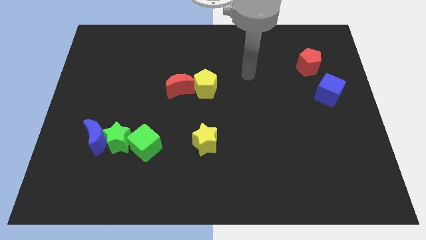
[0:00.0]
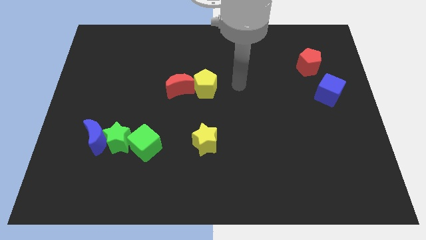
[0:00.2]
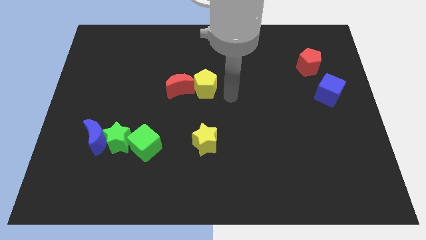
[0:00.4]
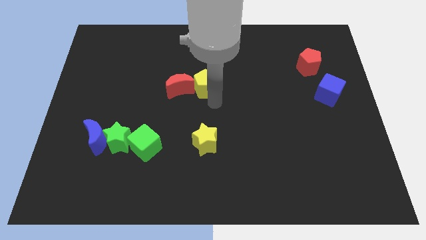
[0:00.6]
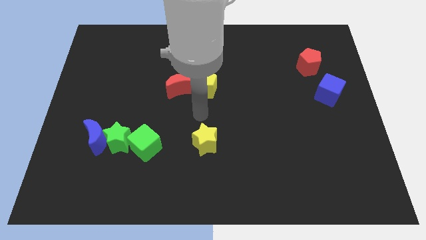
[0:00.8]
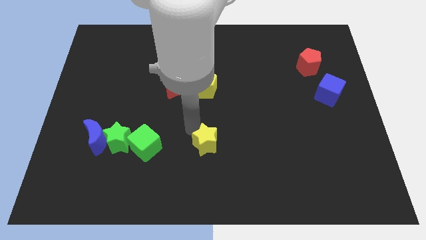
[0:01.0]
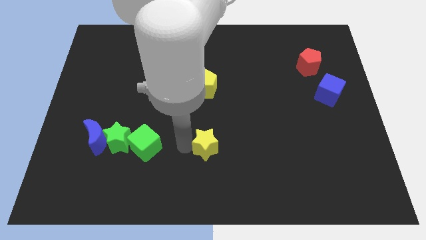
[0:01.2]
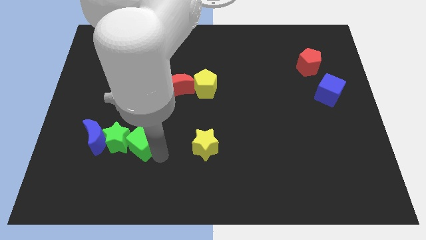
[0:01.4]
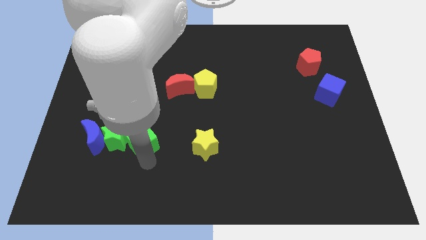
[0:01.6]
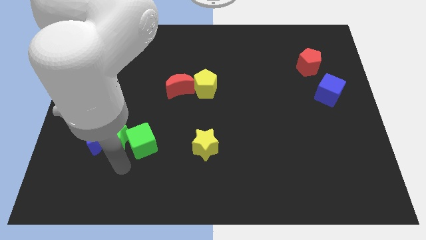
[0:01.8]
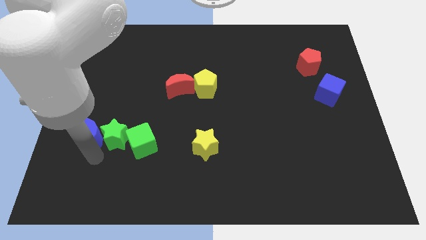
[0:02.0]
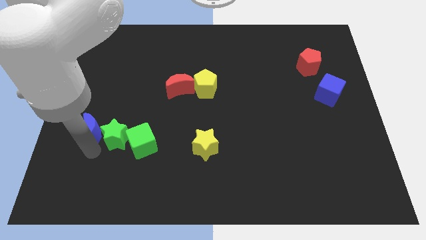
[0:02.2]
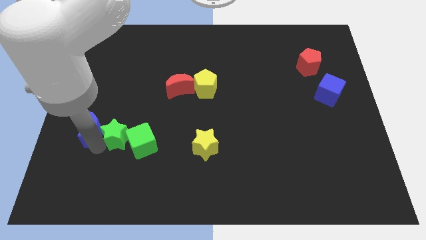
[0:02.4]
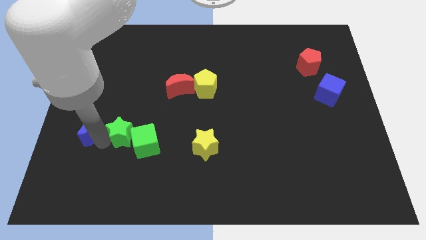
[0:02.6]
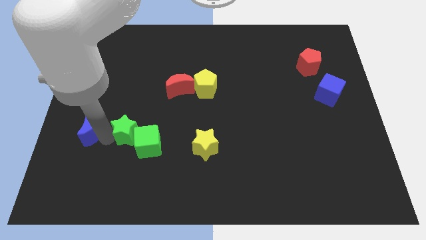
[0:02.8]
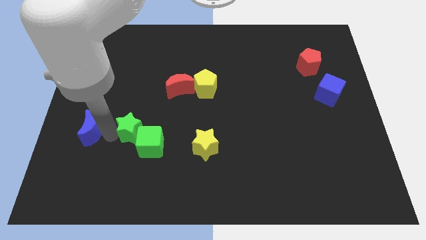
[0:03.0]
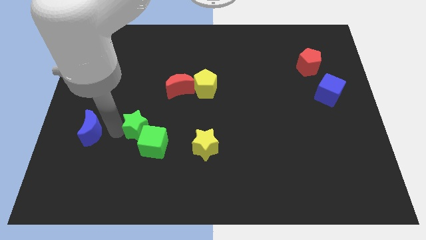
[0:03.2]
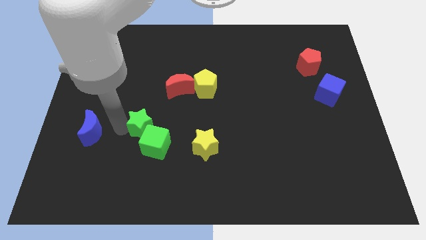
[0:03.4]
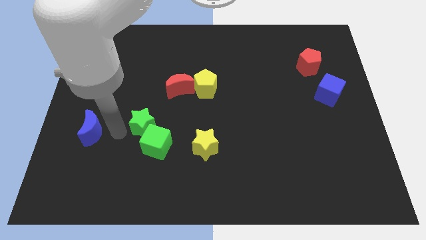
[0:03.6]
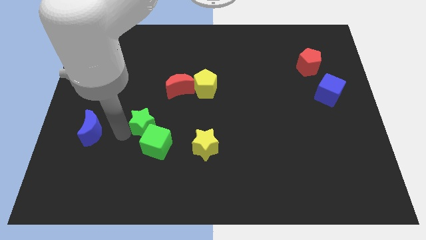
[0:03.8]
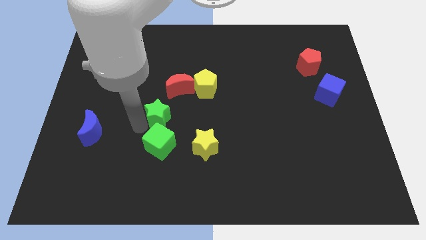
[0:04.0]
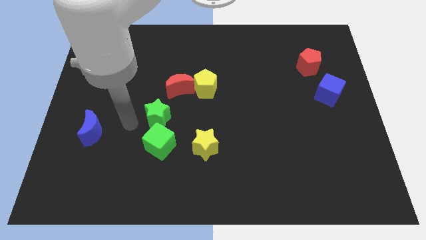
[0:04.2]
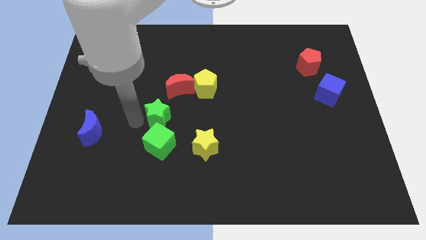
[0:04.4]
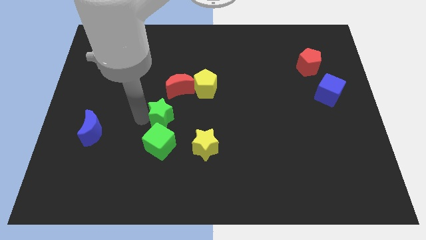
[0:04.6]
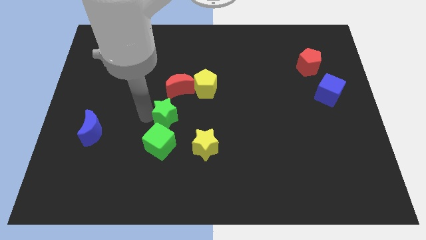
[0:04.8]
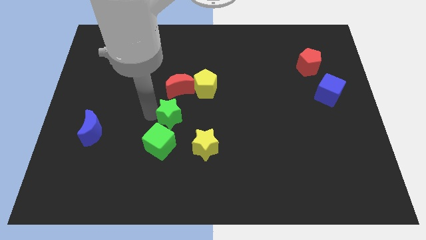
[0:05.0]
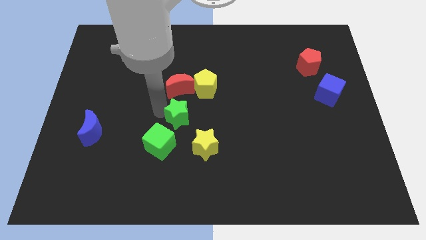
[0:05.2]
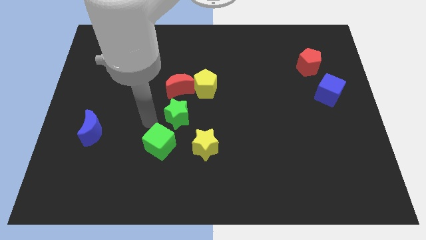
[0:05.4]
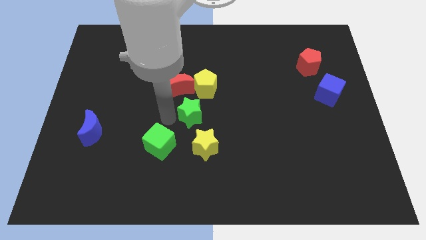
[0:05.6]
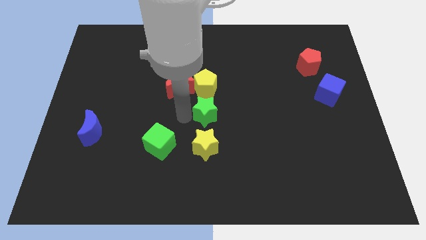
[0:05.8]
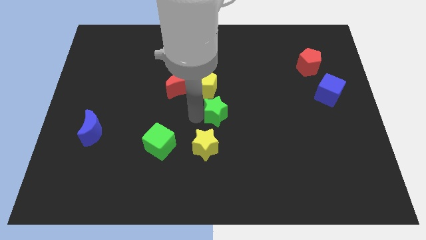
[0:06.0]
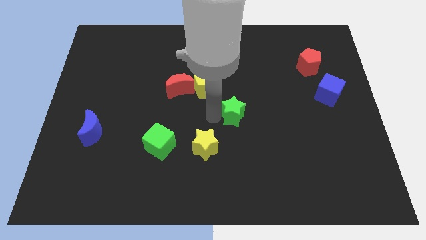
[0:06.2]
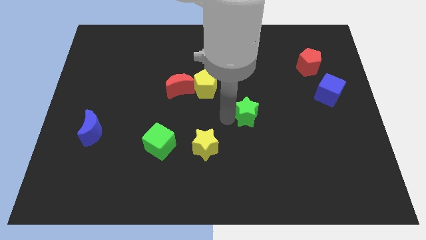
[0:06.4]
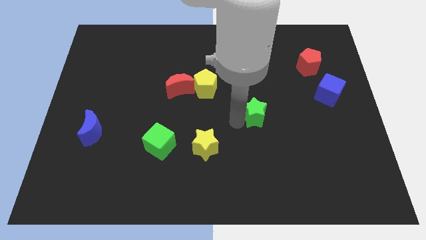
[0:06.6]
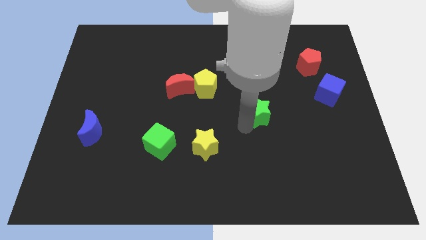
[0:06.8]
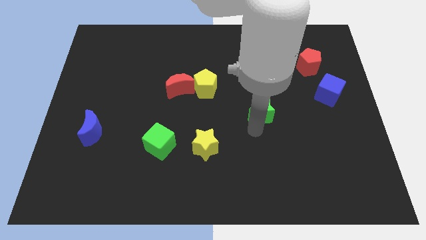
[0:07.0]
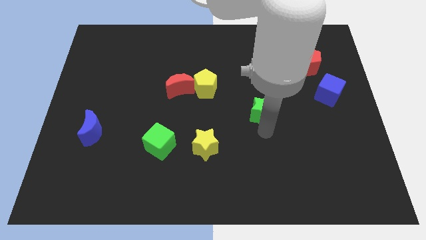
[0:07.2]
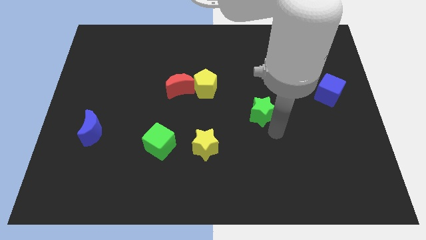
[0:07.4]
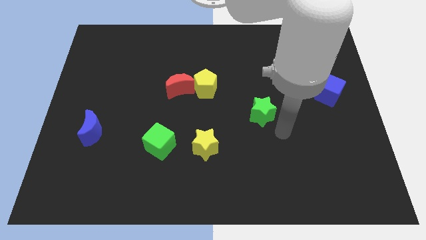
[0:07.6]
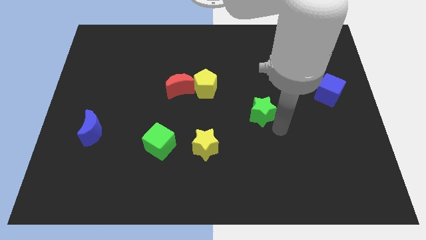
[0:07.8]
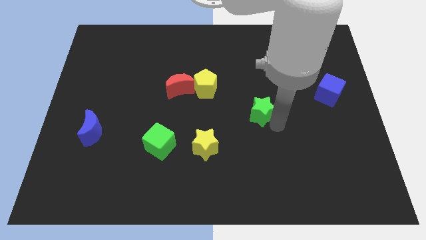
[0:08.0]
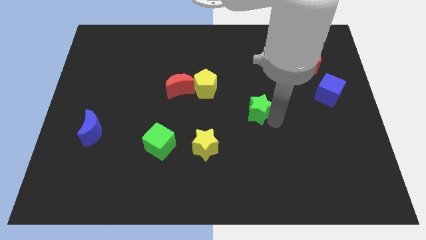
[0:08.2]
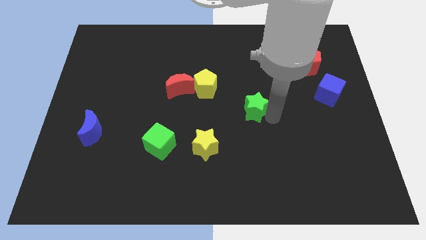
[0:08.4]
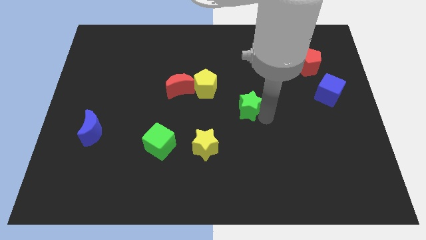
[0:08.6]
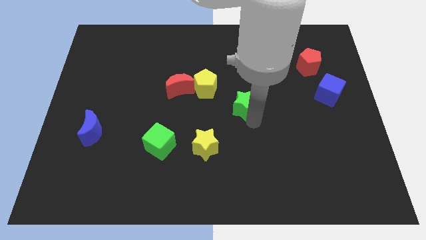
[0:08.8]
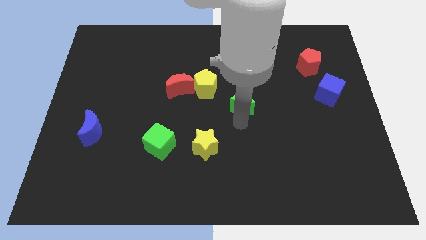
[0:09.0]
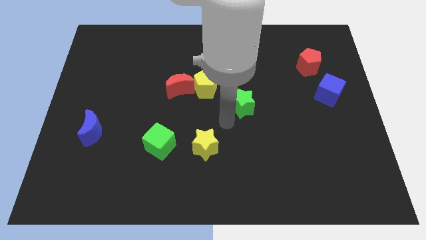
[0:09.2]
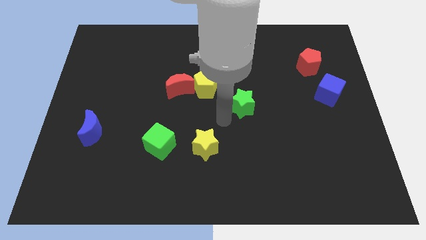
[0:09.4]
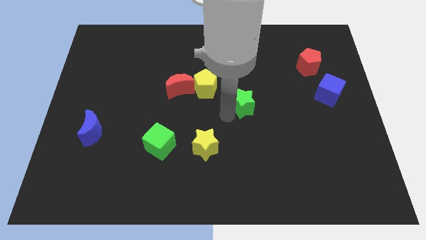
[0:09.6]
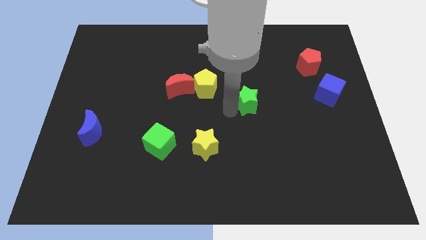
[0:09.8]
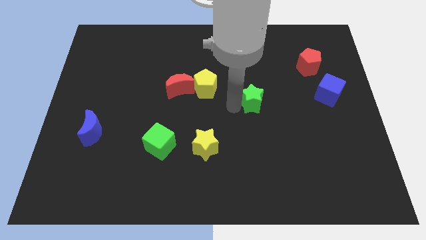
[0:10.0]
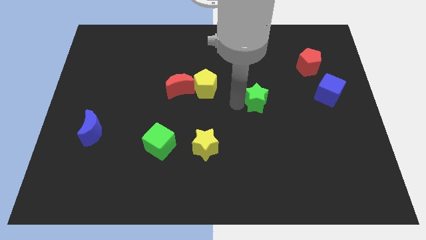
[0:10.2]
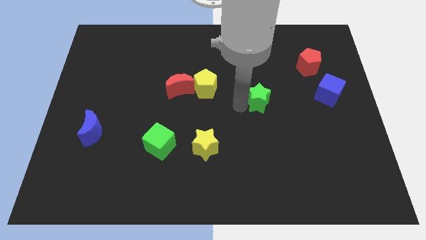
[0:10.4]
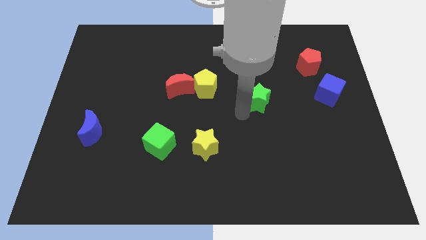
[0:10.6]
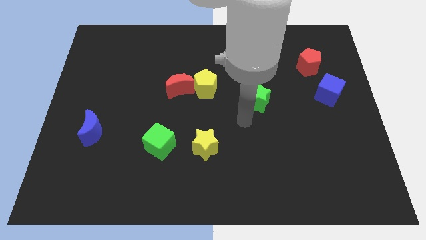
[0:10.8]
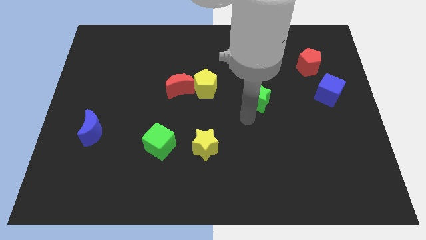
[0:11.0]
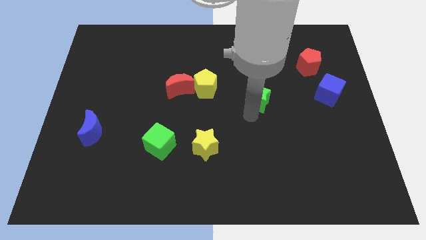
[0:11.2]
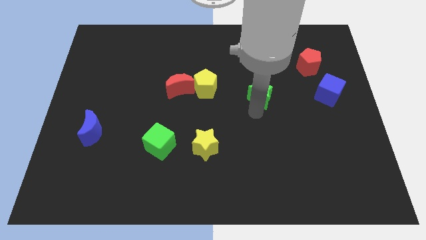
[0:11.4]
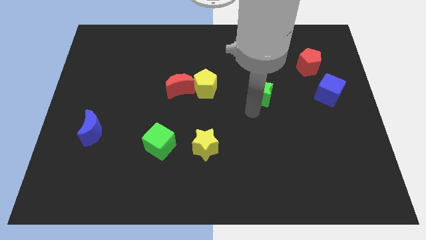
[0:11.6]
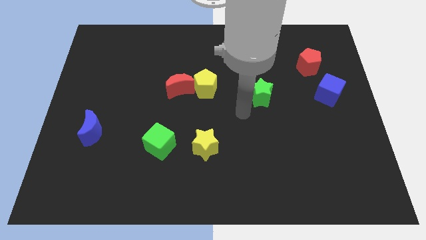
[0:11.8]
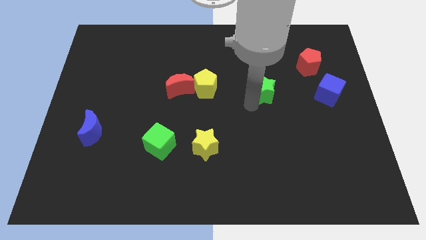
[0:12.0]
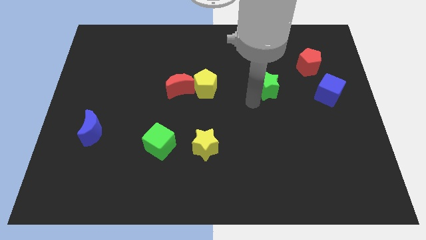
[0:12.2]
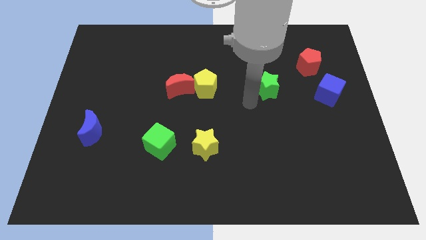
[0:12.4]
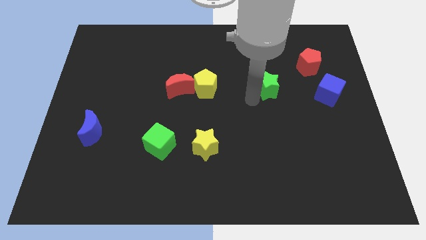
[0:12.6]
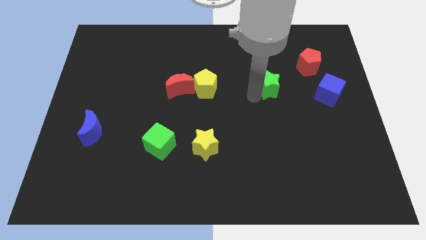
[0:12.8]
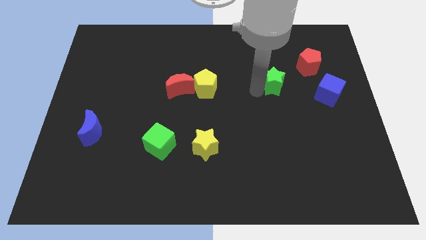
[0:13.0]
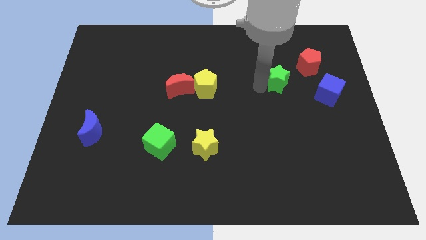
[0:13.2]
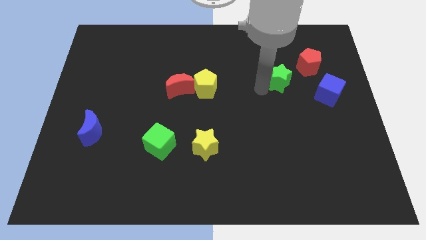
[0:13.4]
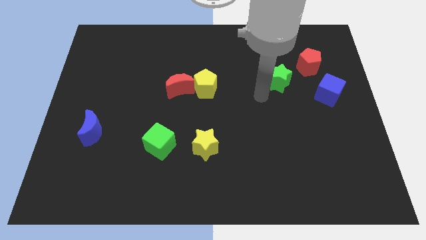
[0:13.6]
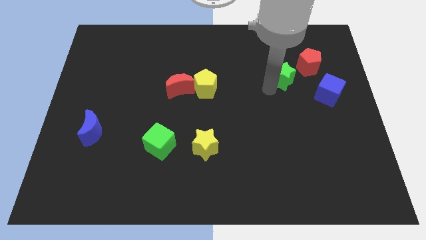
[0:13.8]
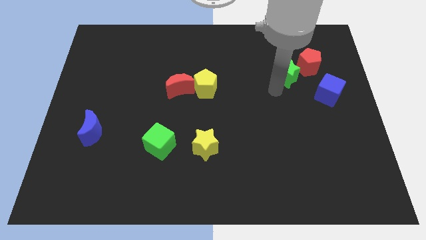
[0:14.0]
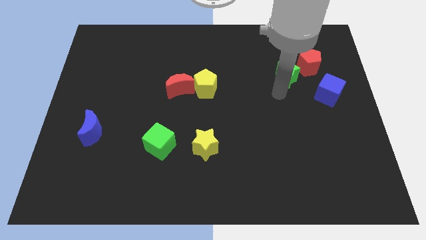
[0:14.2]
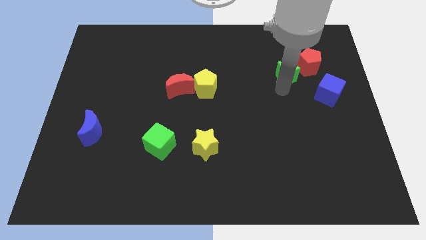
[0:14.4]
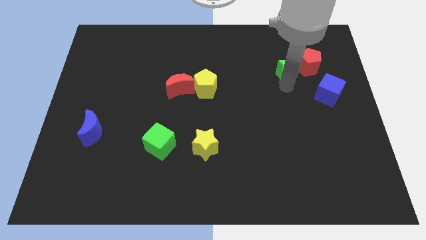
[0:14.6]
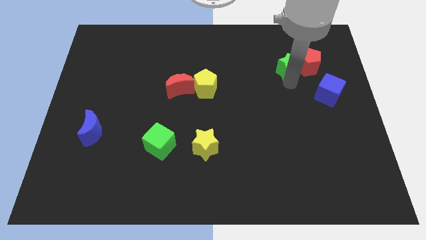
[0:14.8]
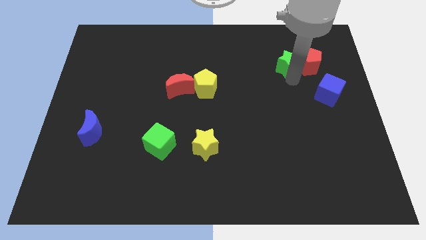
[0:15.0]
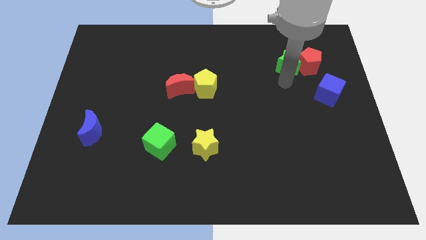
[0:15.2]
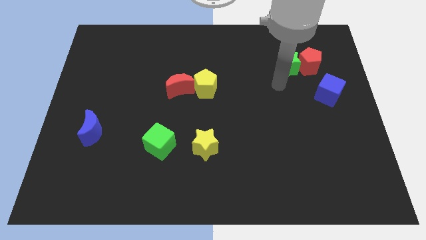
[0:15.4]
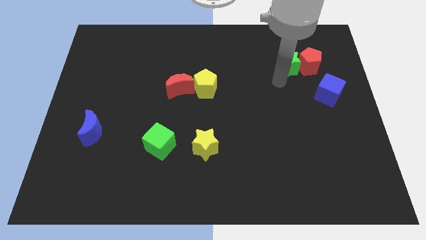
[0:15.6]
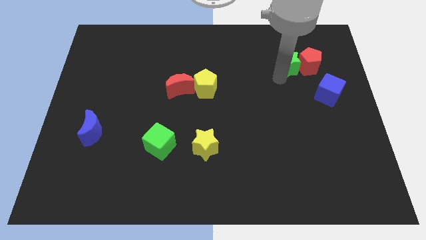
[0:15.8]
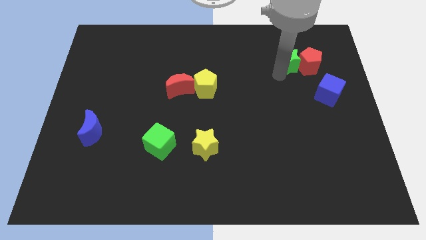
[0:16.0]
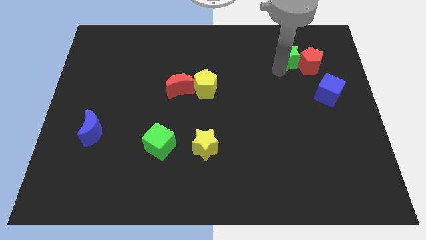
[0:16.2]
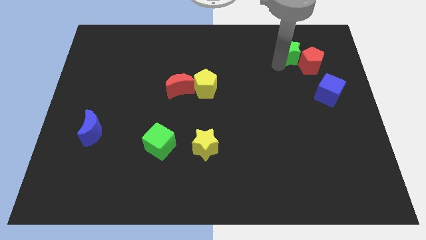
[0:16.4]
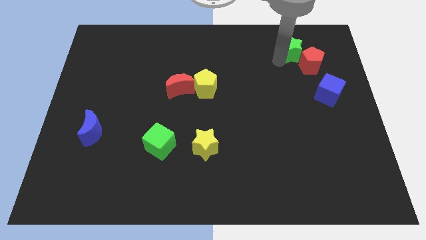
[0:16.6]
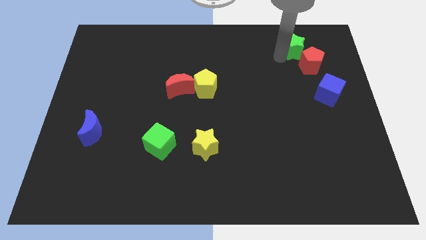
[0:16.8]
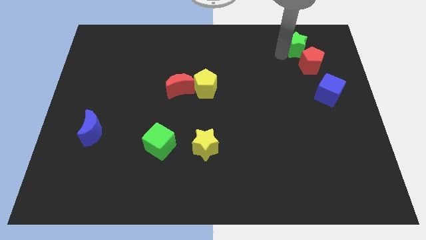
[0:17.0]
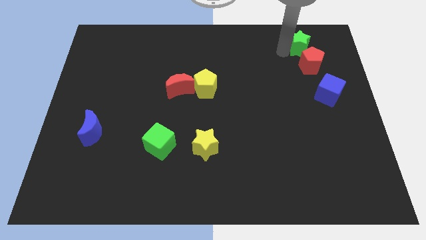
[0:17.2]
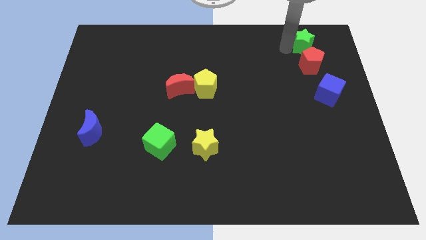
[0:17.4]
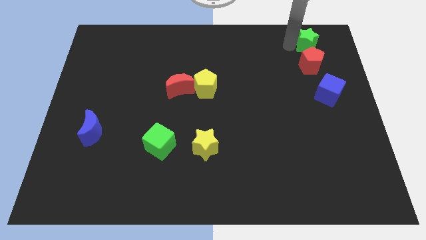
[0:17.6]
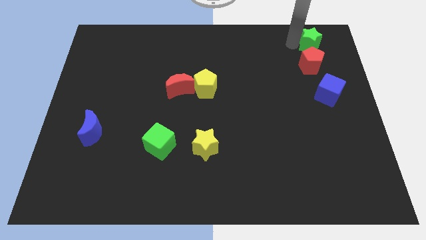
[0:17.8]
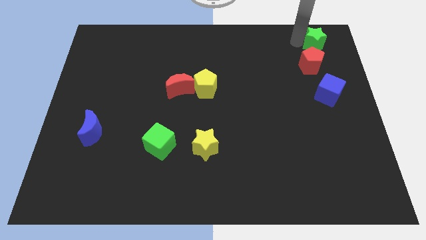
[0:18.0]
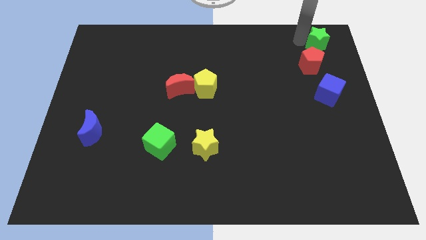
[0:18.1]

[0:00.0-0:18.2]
put the green star to the top right corner
